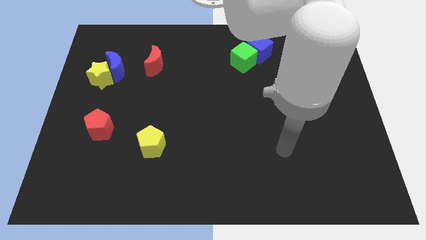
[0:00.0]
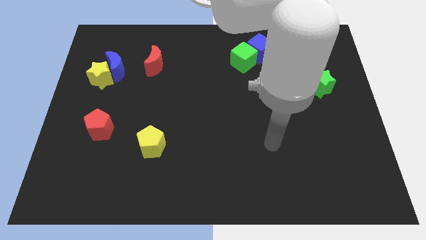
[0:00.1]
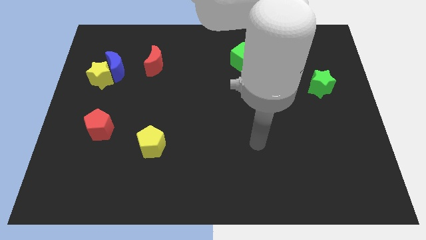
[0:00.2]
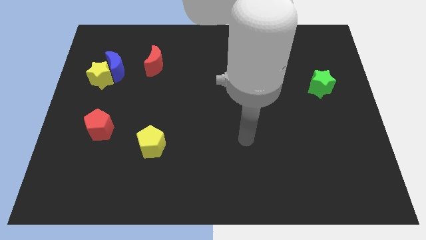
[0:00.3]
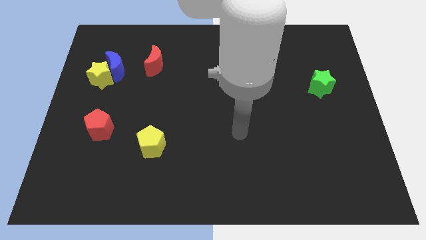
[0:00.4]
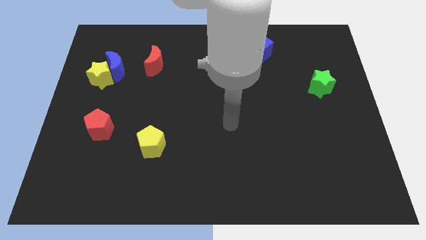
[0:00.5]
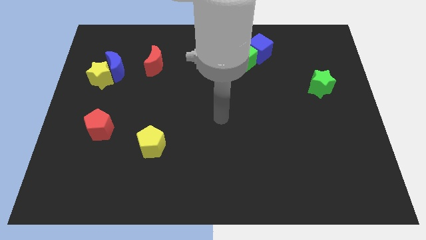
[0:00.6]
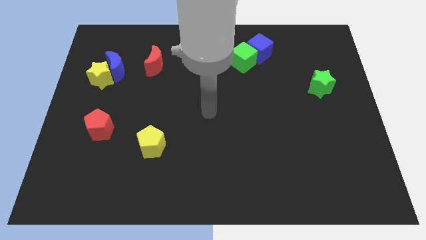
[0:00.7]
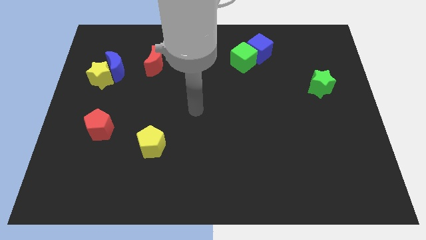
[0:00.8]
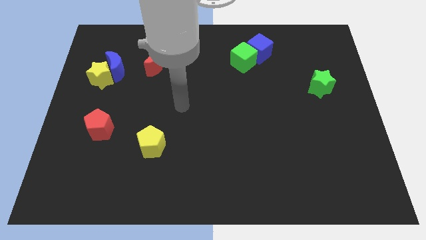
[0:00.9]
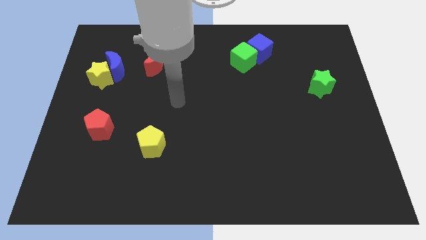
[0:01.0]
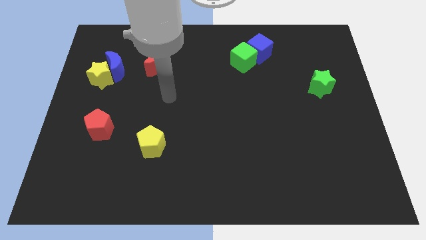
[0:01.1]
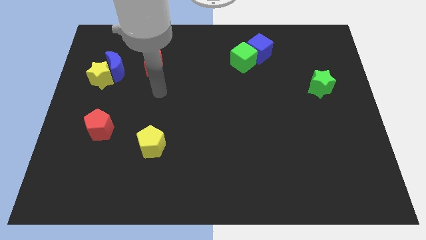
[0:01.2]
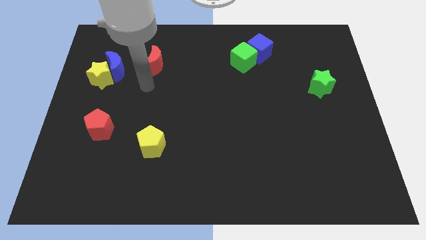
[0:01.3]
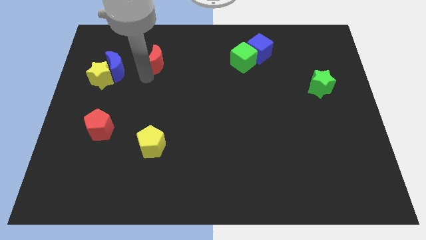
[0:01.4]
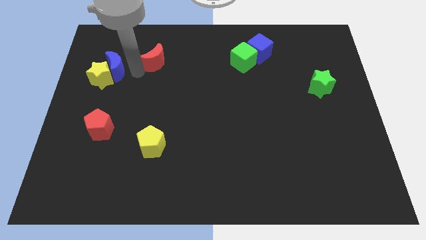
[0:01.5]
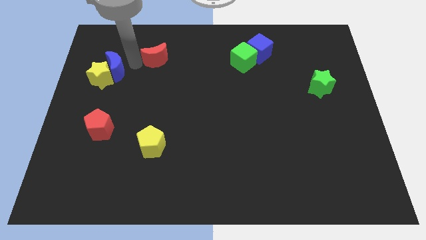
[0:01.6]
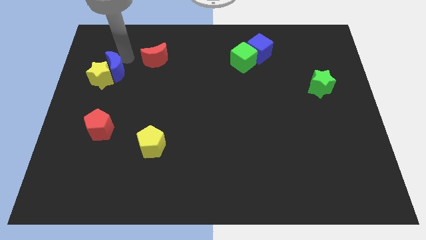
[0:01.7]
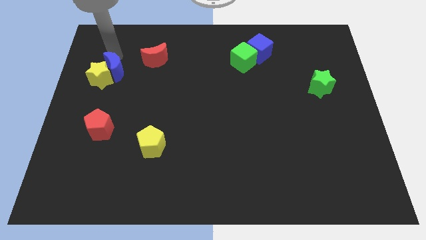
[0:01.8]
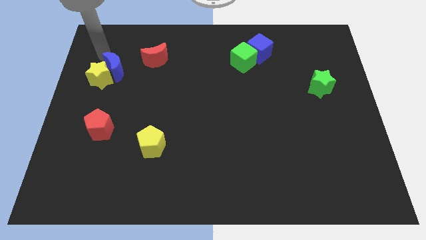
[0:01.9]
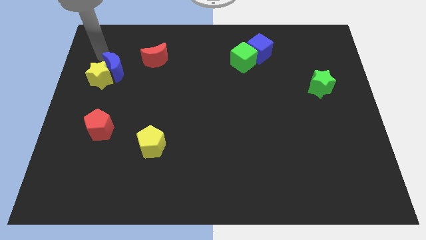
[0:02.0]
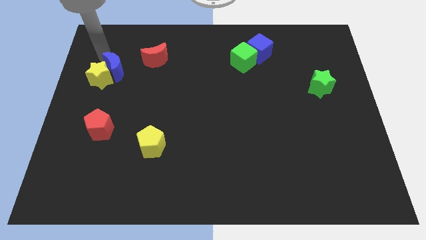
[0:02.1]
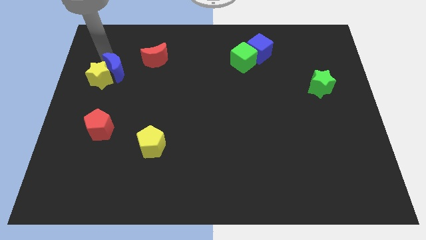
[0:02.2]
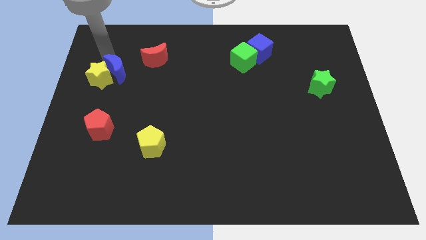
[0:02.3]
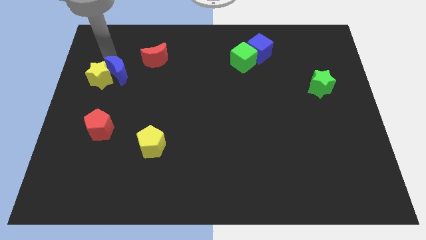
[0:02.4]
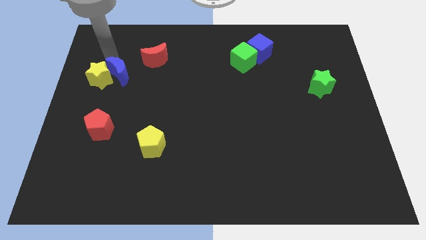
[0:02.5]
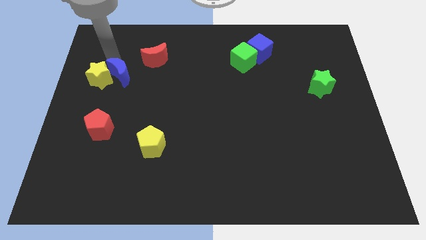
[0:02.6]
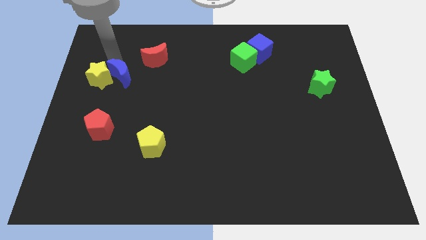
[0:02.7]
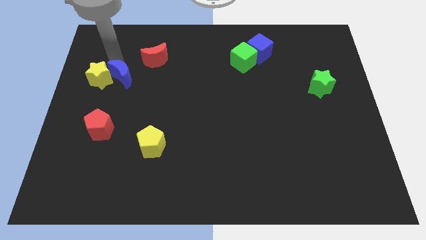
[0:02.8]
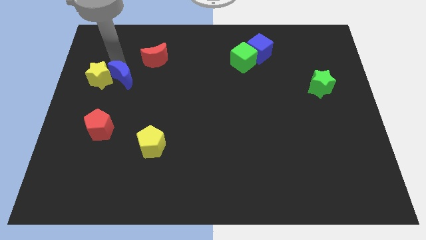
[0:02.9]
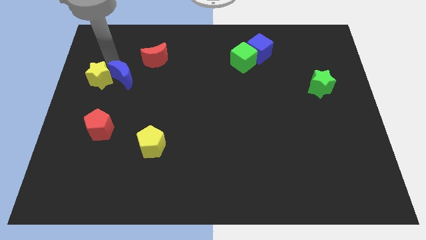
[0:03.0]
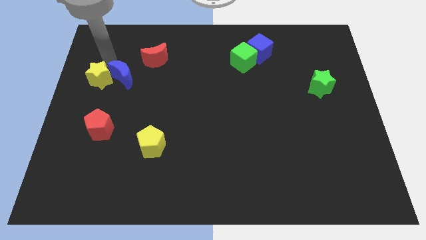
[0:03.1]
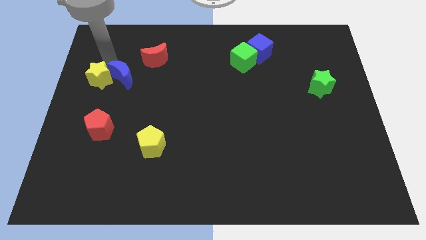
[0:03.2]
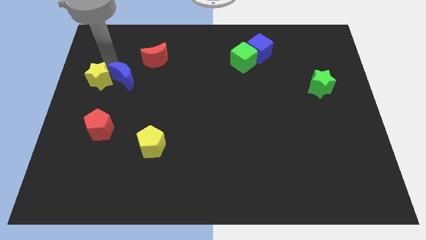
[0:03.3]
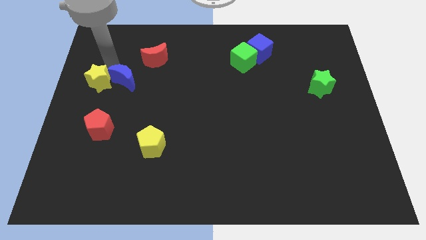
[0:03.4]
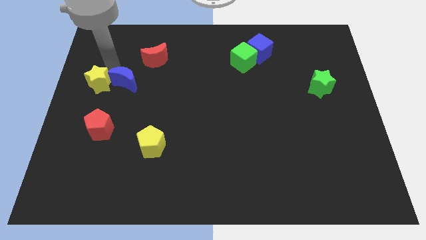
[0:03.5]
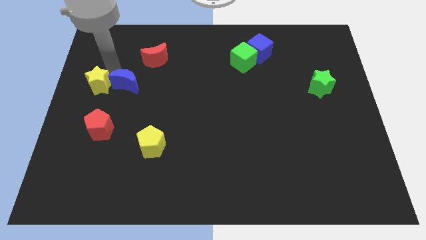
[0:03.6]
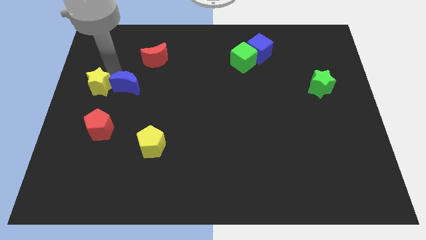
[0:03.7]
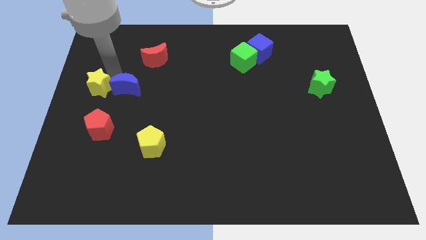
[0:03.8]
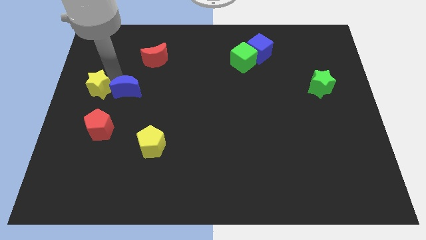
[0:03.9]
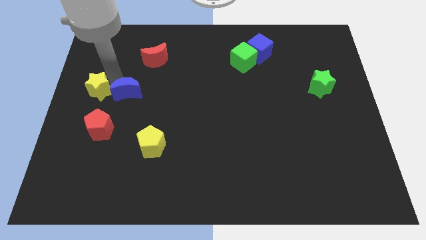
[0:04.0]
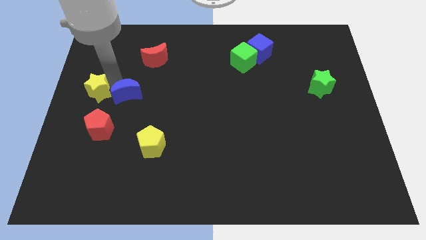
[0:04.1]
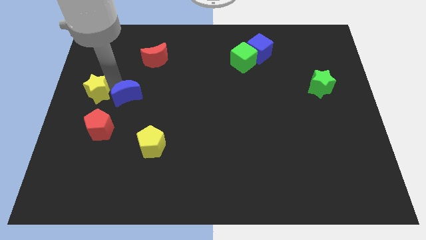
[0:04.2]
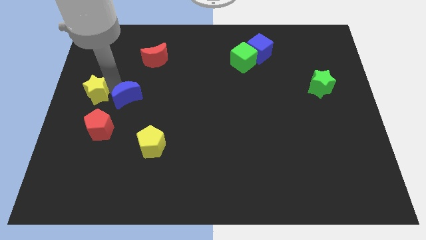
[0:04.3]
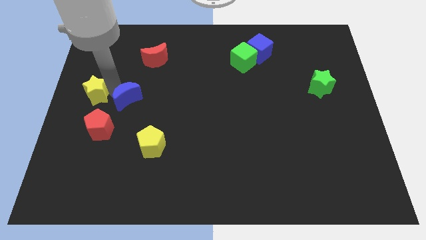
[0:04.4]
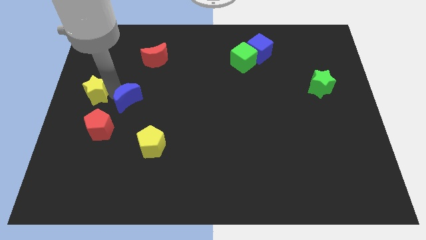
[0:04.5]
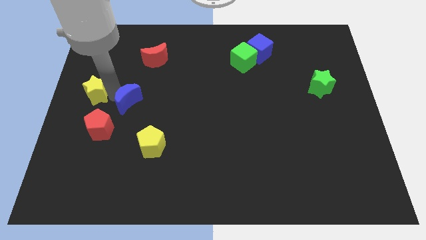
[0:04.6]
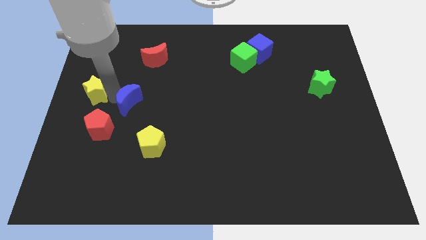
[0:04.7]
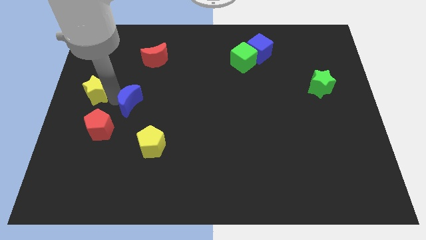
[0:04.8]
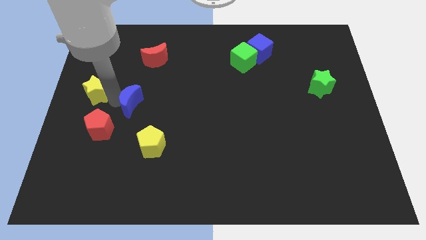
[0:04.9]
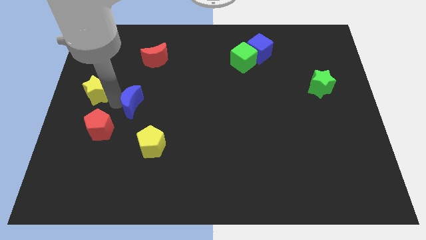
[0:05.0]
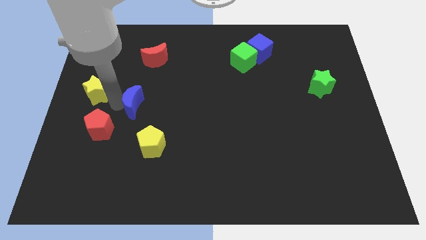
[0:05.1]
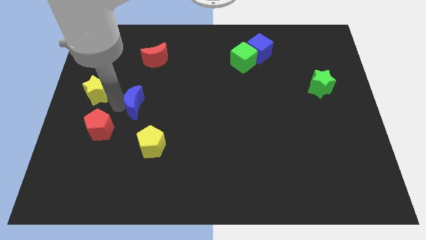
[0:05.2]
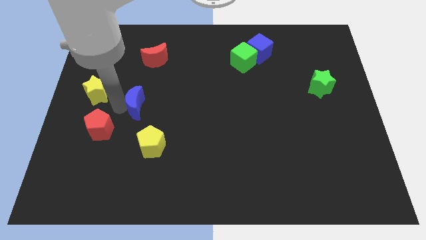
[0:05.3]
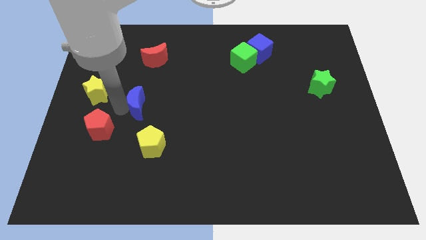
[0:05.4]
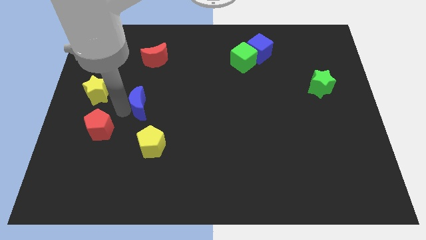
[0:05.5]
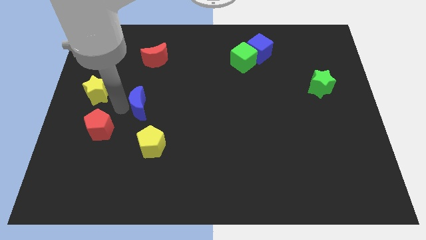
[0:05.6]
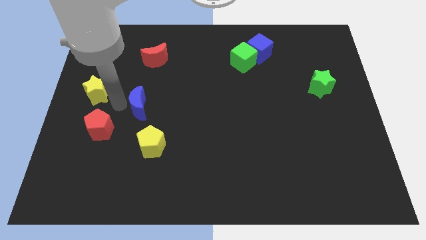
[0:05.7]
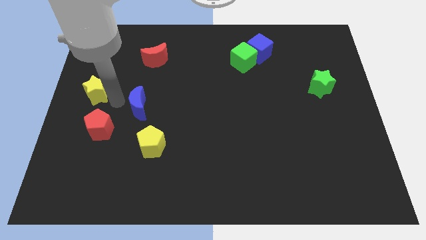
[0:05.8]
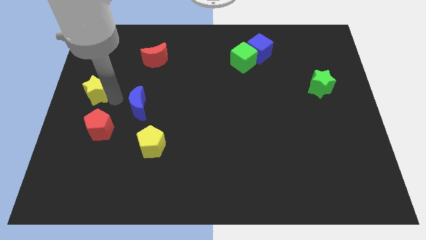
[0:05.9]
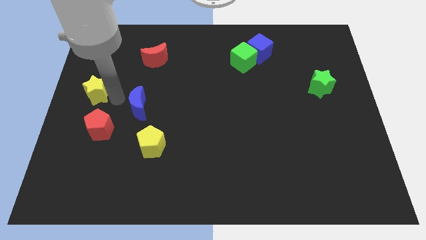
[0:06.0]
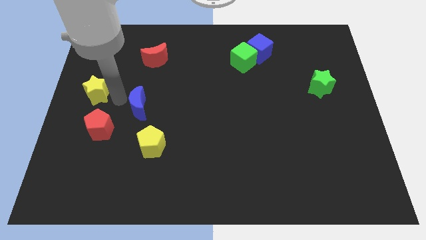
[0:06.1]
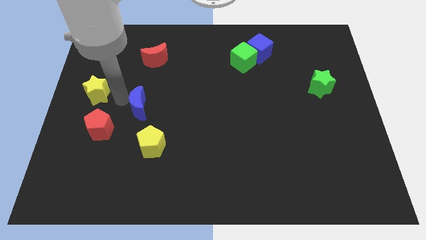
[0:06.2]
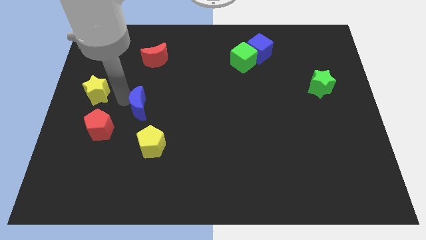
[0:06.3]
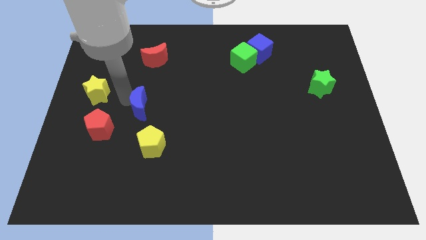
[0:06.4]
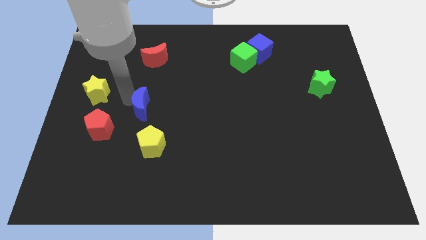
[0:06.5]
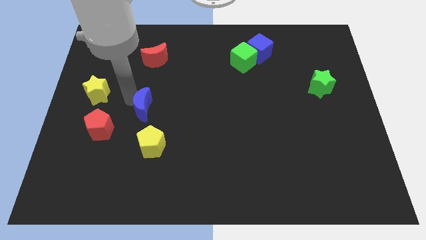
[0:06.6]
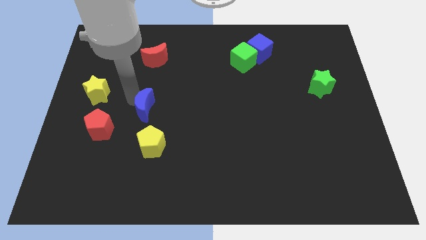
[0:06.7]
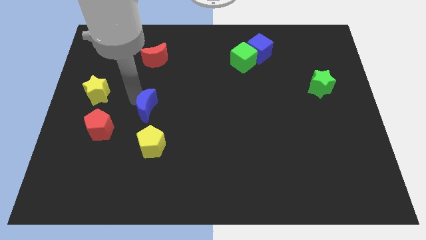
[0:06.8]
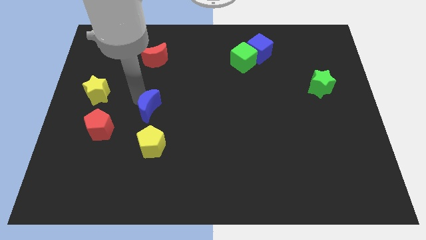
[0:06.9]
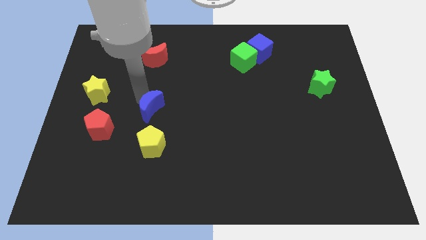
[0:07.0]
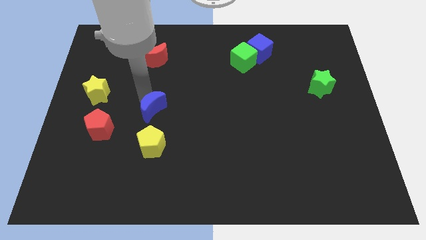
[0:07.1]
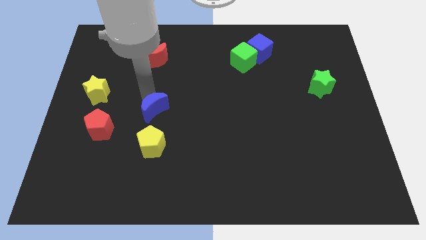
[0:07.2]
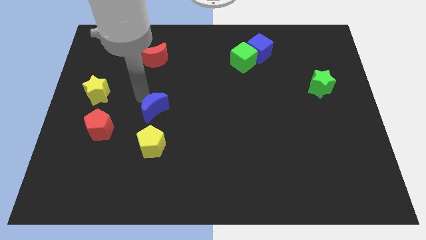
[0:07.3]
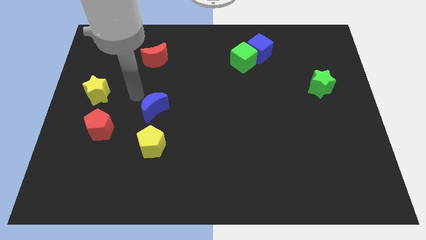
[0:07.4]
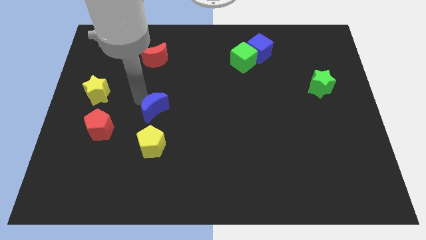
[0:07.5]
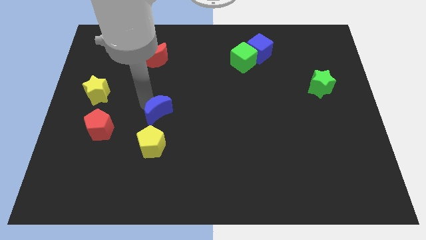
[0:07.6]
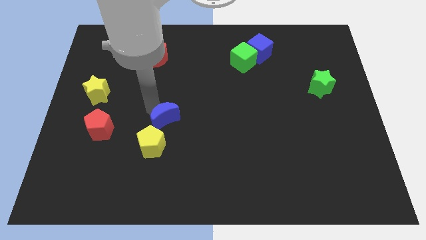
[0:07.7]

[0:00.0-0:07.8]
push the blue moon diagonally down and right

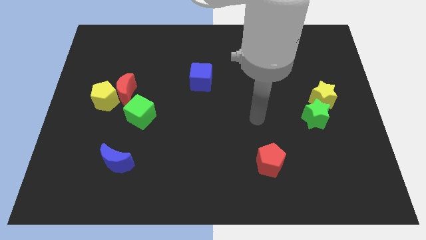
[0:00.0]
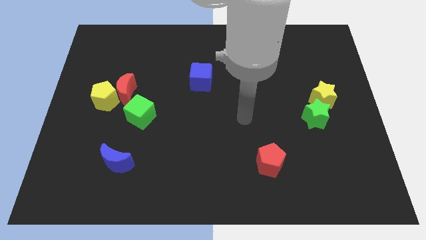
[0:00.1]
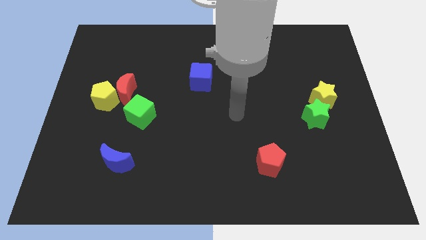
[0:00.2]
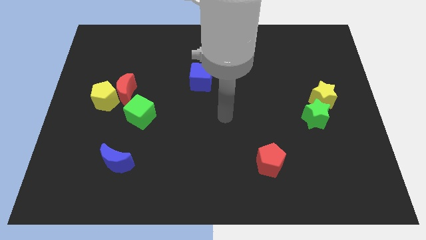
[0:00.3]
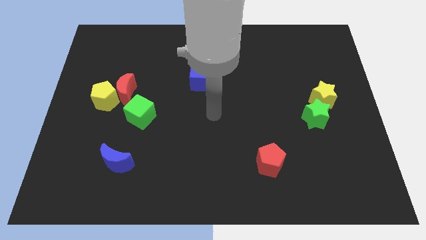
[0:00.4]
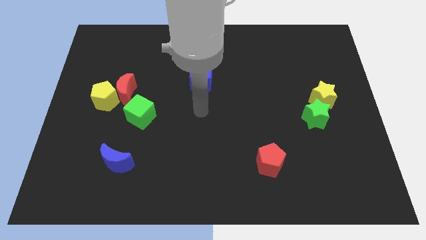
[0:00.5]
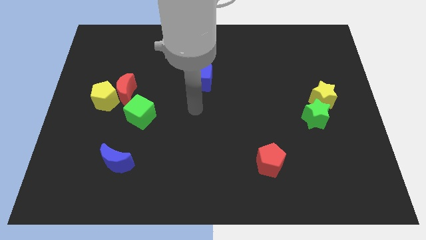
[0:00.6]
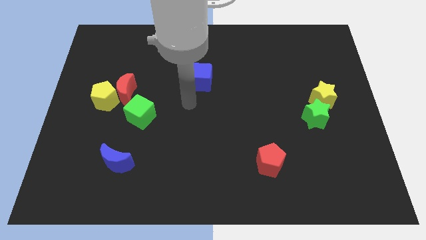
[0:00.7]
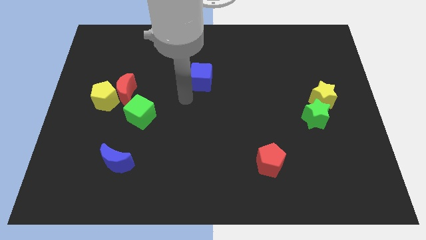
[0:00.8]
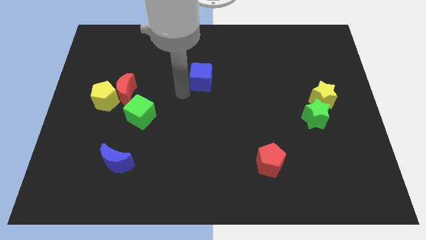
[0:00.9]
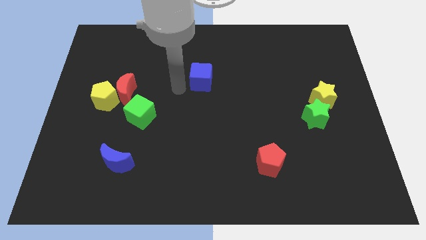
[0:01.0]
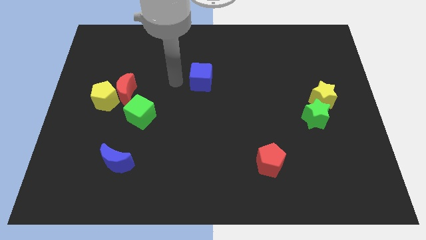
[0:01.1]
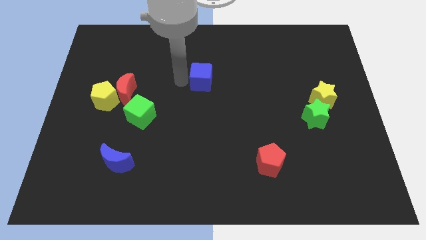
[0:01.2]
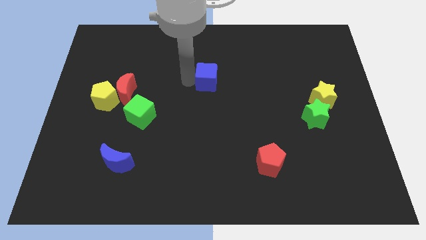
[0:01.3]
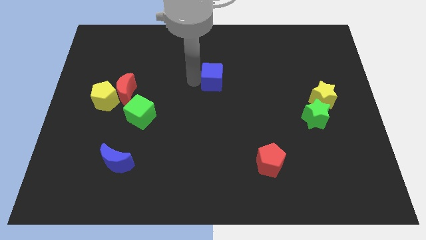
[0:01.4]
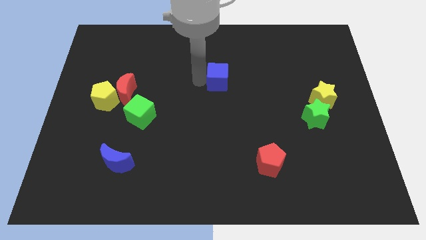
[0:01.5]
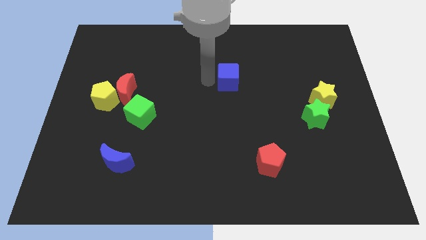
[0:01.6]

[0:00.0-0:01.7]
push the blue cube a bit to the right
